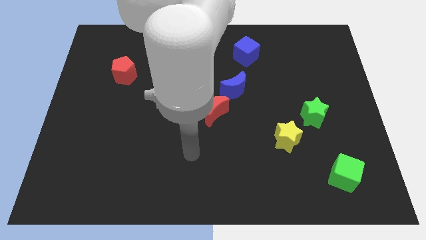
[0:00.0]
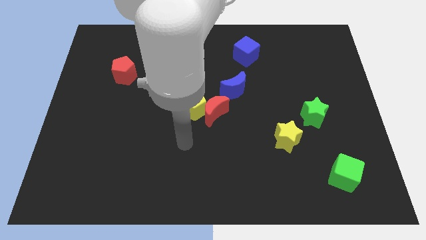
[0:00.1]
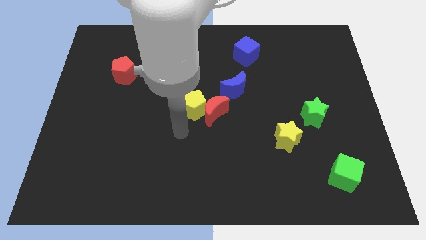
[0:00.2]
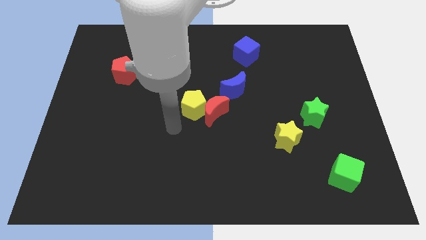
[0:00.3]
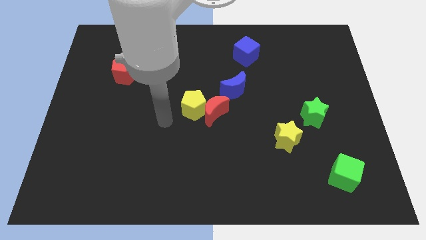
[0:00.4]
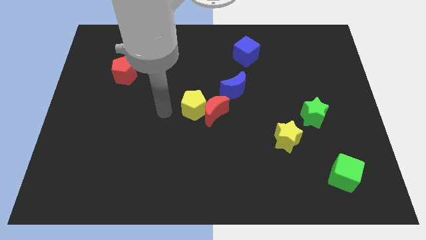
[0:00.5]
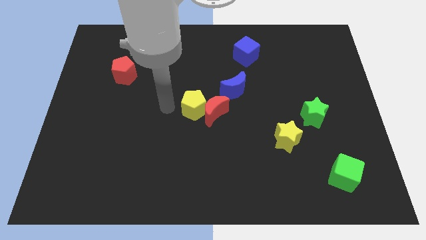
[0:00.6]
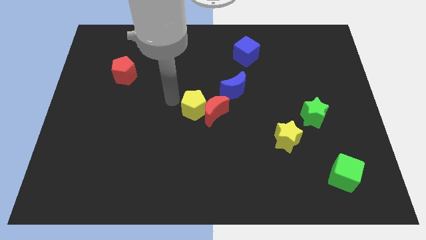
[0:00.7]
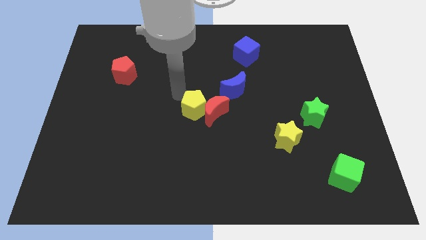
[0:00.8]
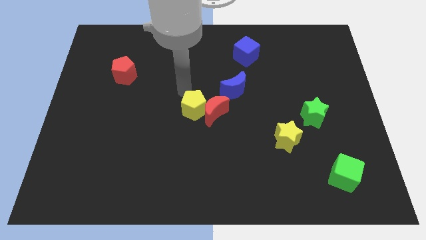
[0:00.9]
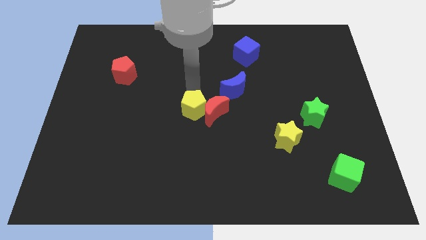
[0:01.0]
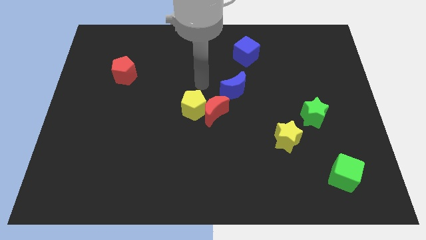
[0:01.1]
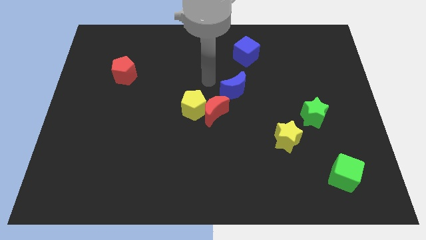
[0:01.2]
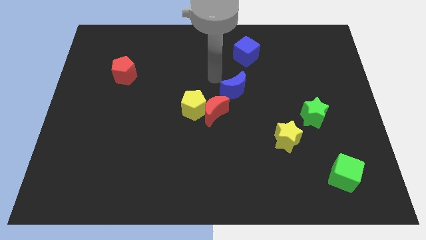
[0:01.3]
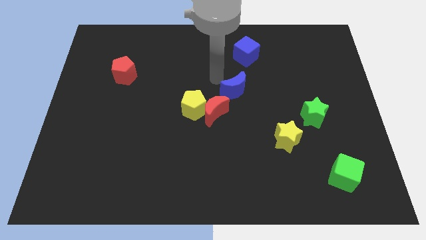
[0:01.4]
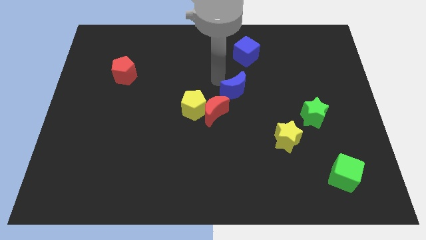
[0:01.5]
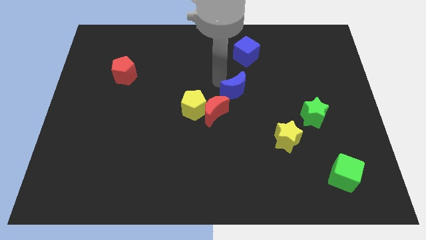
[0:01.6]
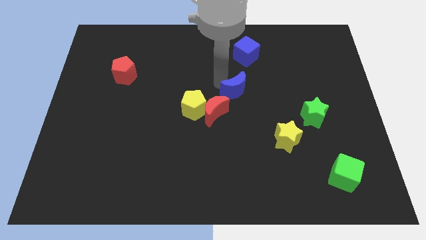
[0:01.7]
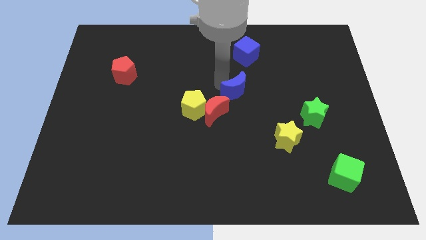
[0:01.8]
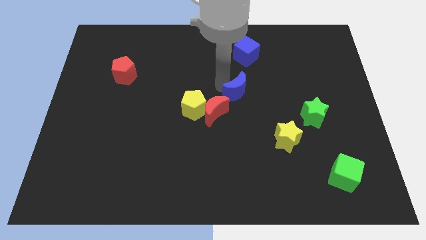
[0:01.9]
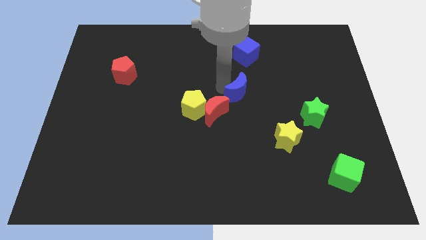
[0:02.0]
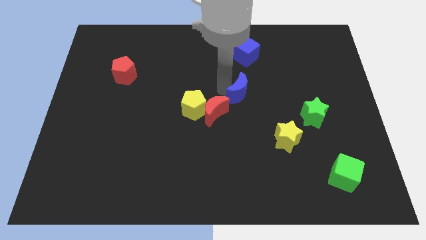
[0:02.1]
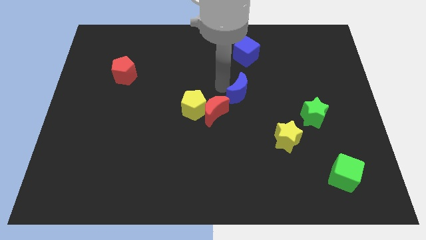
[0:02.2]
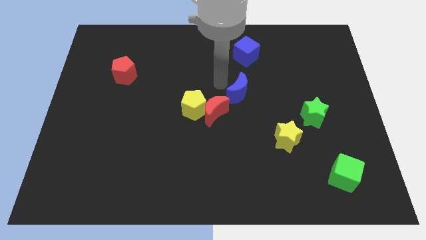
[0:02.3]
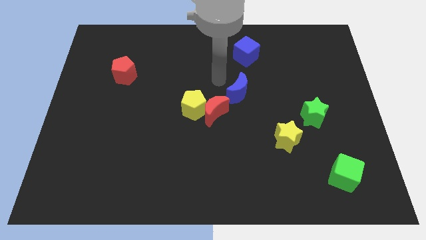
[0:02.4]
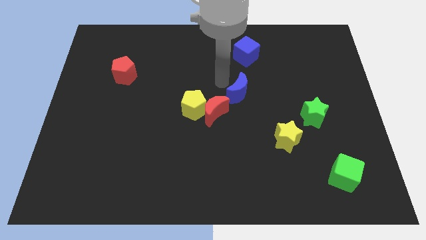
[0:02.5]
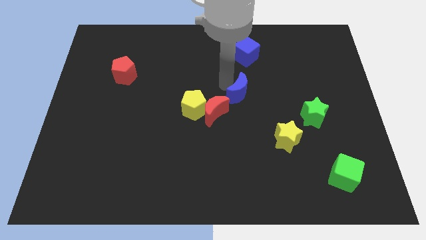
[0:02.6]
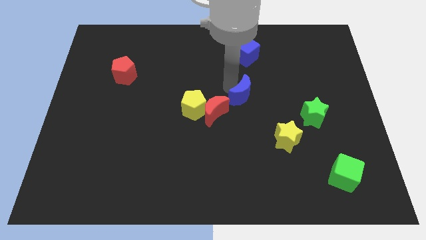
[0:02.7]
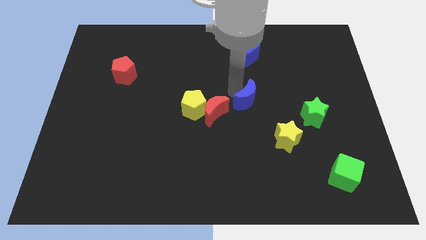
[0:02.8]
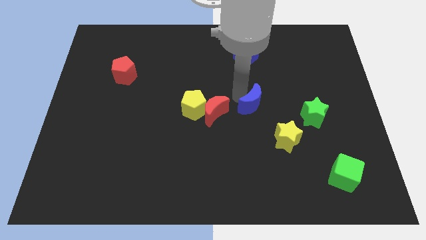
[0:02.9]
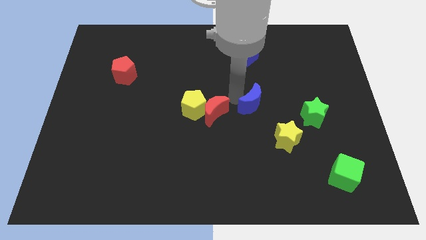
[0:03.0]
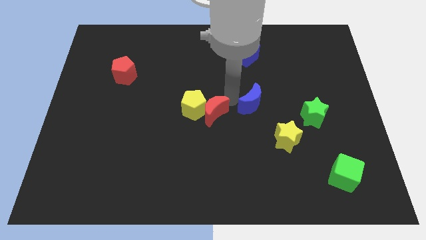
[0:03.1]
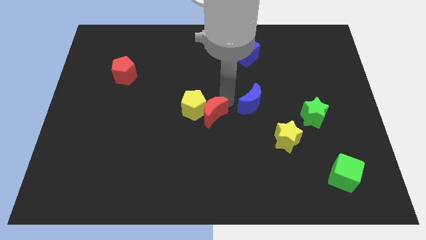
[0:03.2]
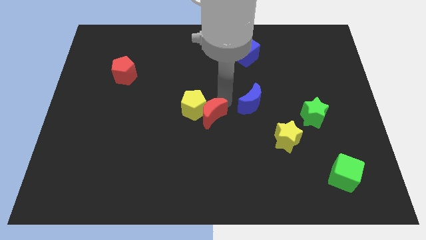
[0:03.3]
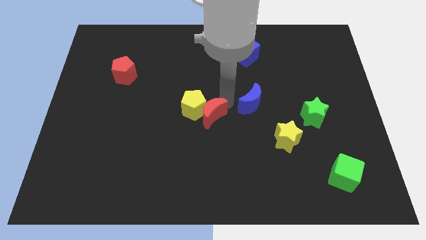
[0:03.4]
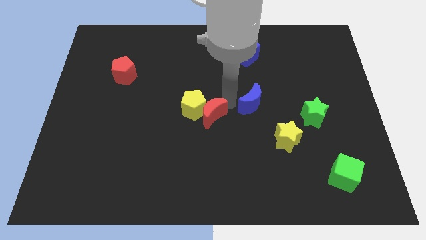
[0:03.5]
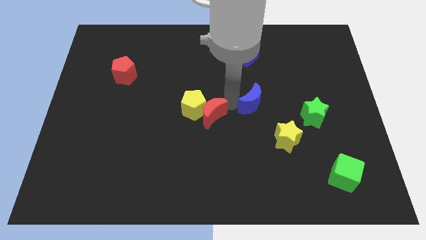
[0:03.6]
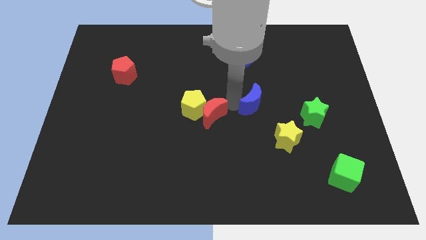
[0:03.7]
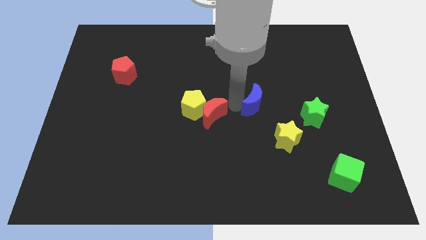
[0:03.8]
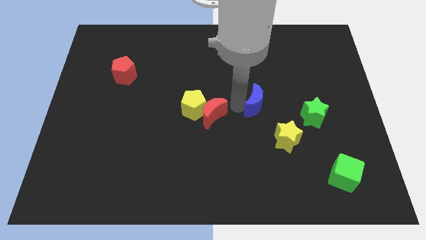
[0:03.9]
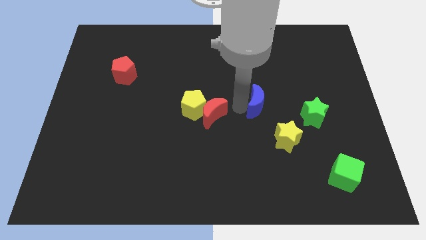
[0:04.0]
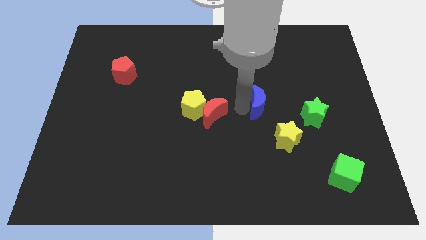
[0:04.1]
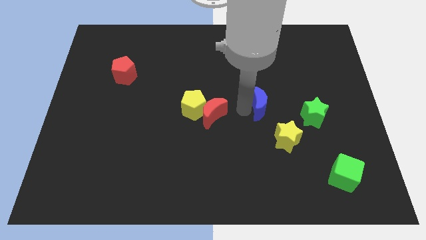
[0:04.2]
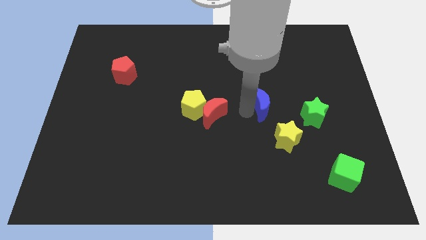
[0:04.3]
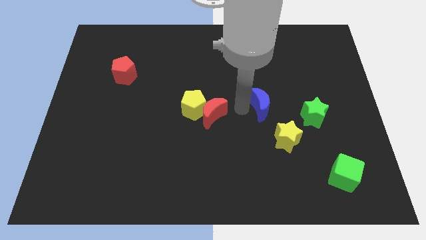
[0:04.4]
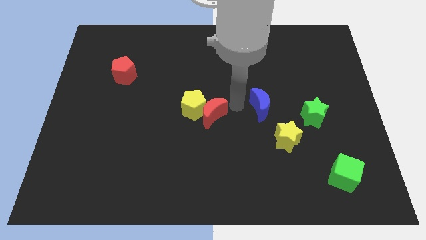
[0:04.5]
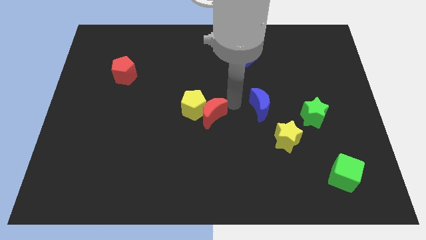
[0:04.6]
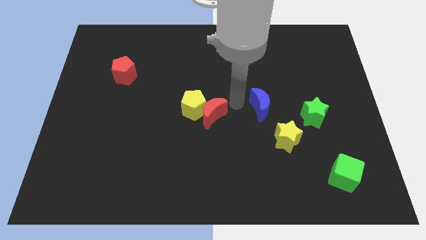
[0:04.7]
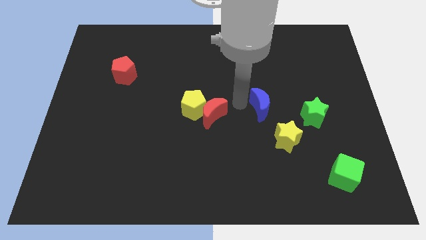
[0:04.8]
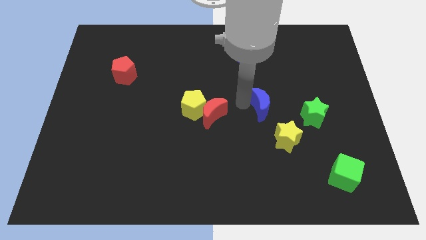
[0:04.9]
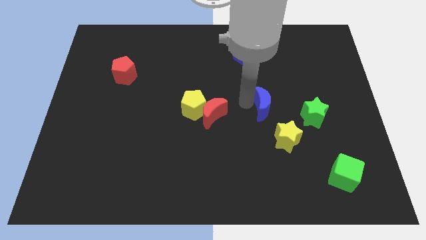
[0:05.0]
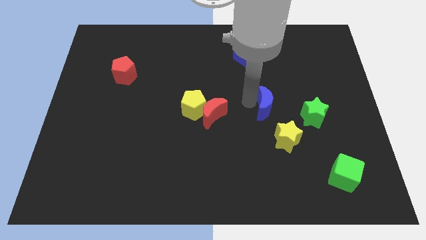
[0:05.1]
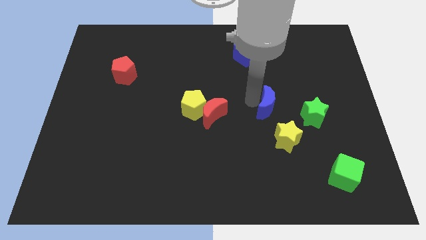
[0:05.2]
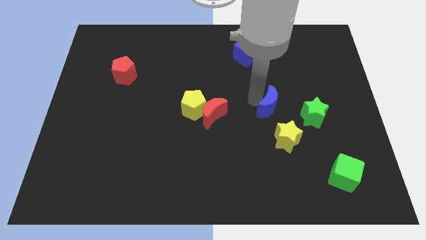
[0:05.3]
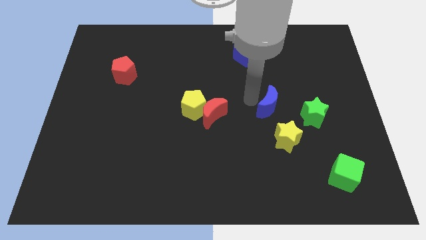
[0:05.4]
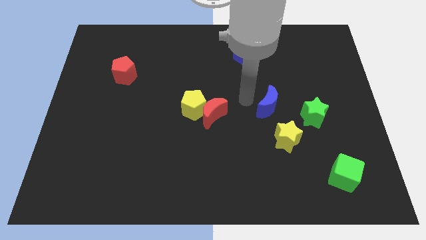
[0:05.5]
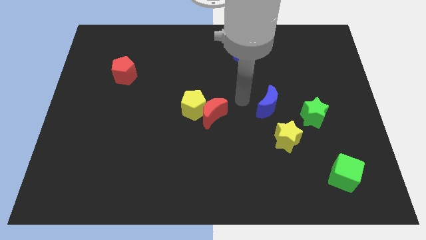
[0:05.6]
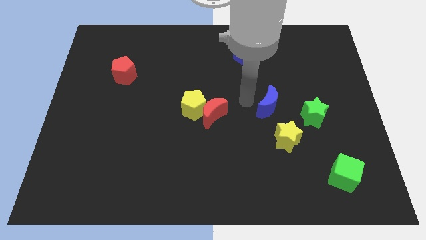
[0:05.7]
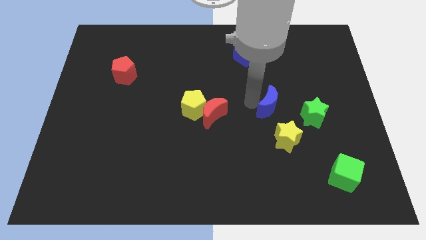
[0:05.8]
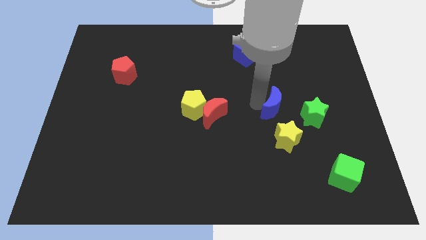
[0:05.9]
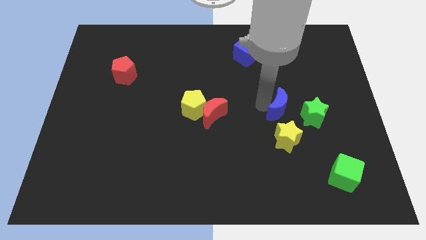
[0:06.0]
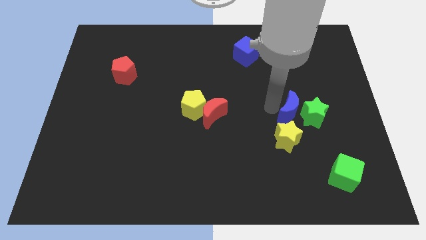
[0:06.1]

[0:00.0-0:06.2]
slide the blue moon next to the green star

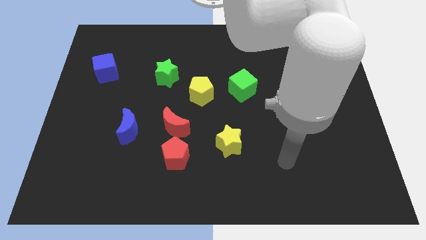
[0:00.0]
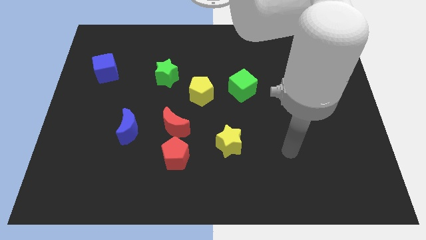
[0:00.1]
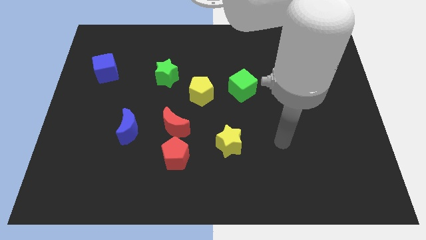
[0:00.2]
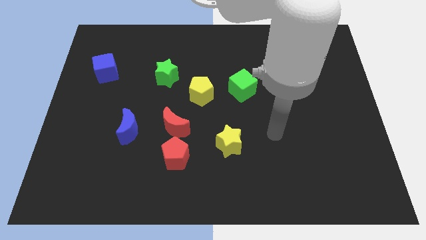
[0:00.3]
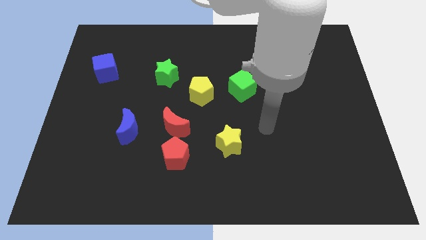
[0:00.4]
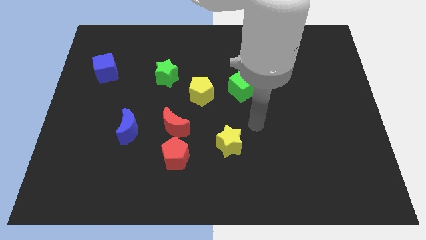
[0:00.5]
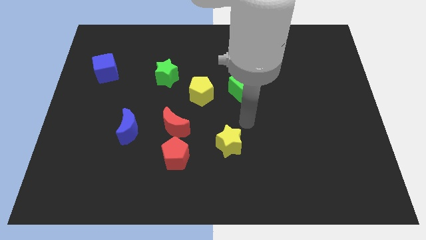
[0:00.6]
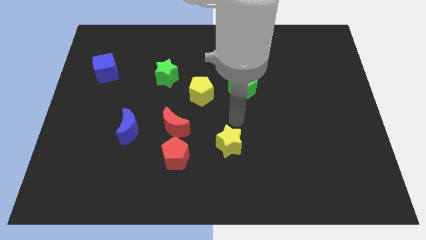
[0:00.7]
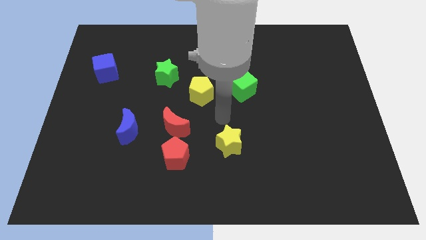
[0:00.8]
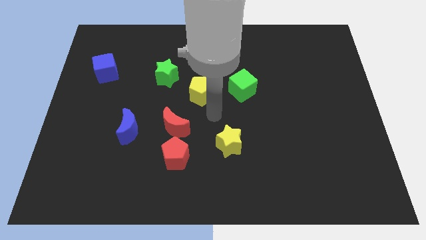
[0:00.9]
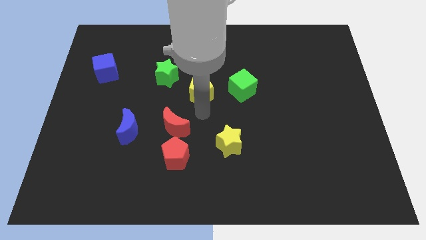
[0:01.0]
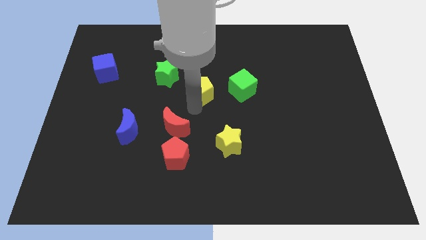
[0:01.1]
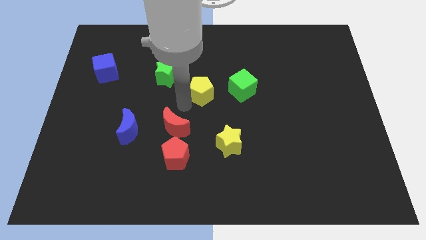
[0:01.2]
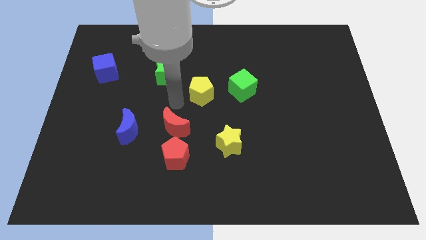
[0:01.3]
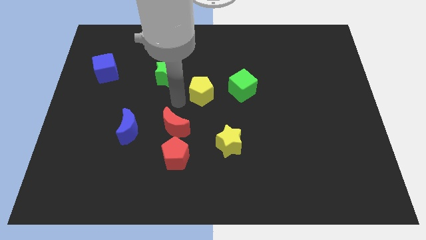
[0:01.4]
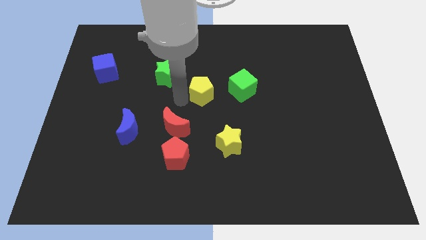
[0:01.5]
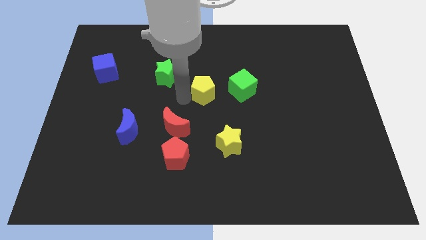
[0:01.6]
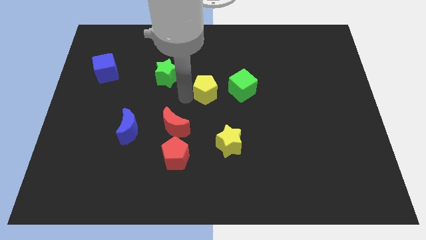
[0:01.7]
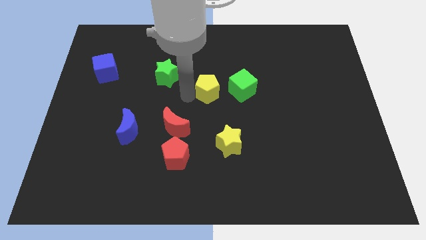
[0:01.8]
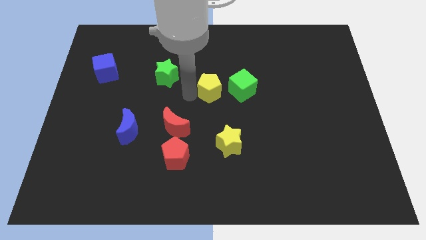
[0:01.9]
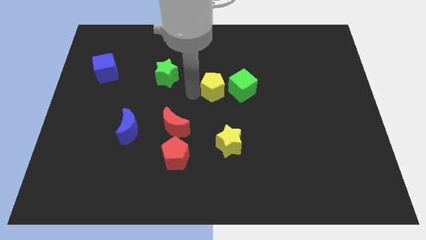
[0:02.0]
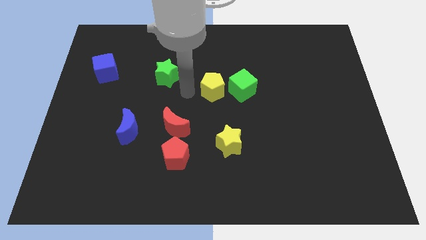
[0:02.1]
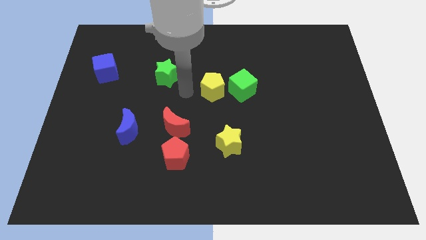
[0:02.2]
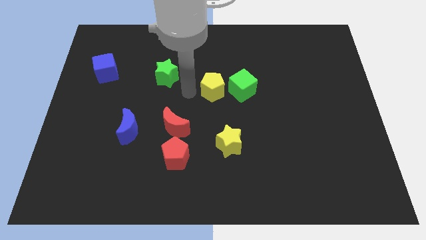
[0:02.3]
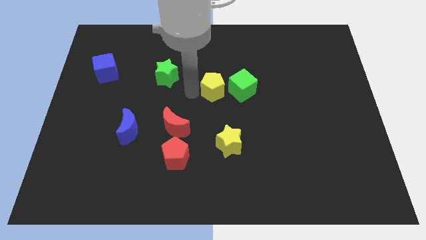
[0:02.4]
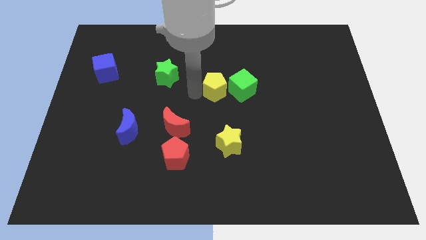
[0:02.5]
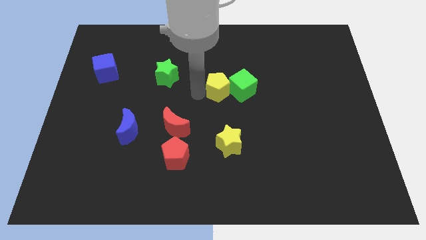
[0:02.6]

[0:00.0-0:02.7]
push the yellow pentagon close to the green cube
